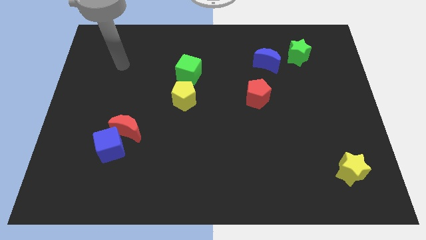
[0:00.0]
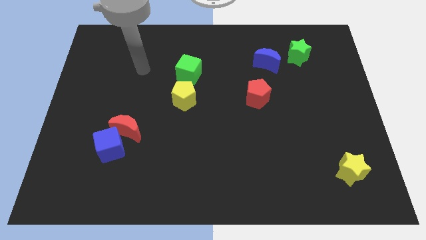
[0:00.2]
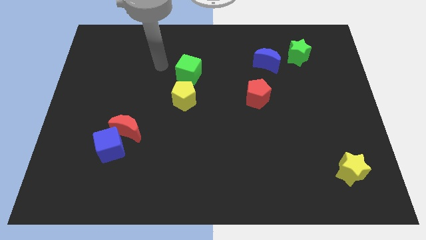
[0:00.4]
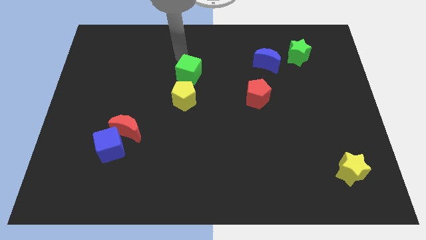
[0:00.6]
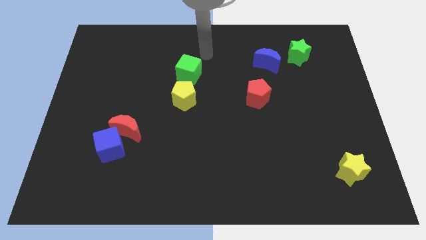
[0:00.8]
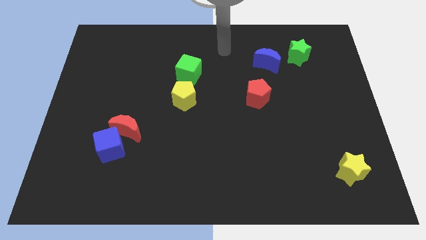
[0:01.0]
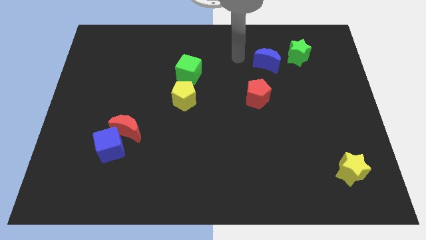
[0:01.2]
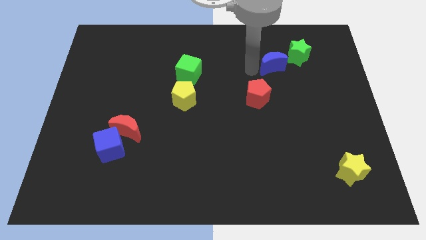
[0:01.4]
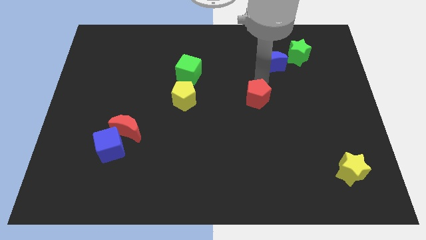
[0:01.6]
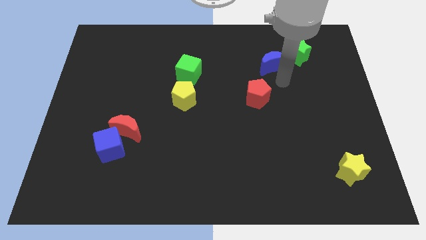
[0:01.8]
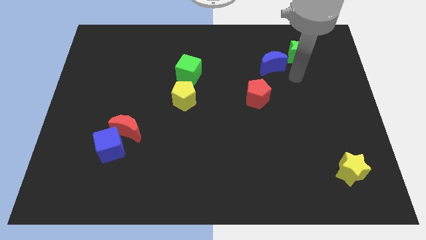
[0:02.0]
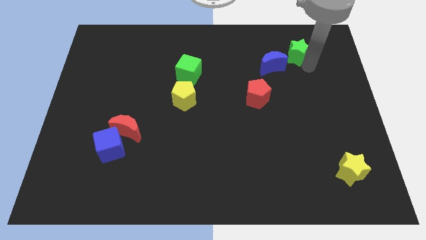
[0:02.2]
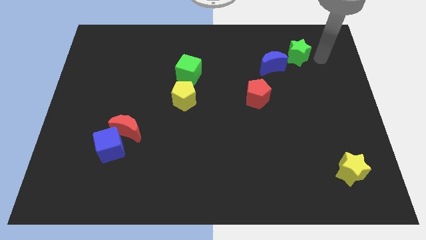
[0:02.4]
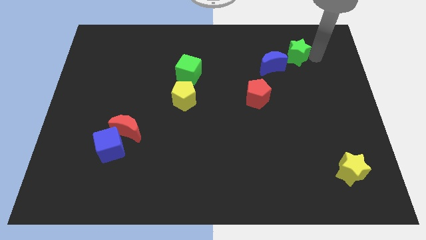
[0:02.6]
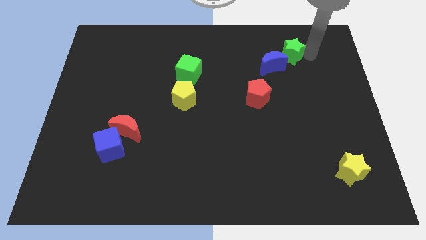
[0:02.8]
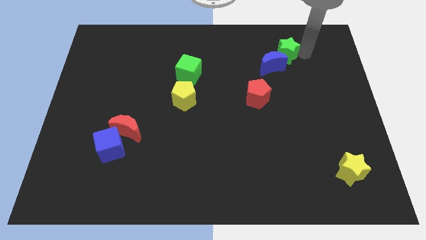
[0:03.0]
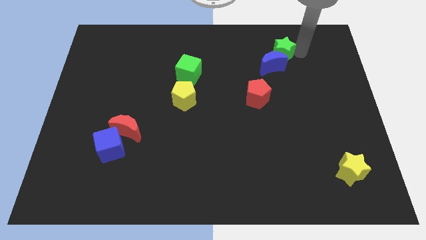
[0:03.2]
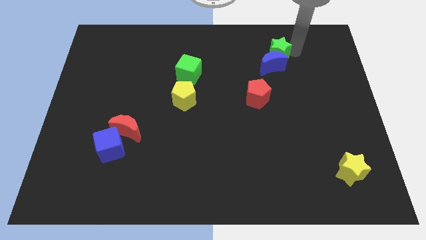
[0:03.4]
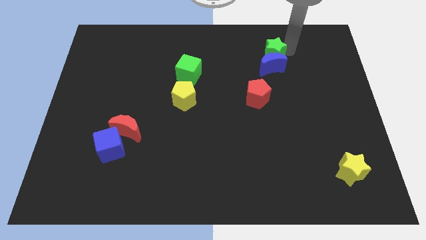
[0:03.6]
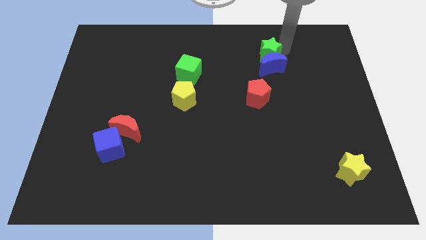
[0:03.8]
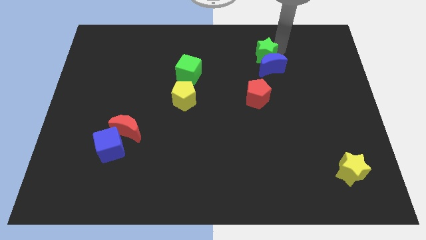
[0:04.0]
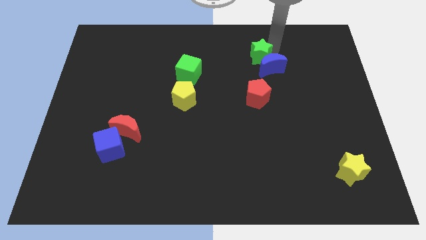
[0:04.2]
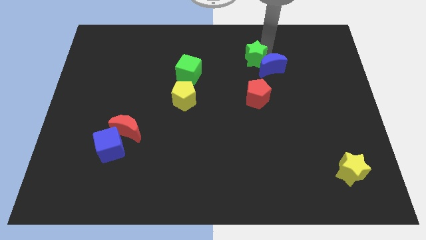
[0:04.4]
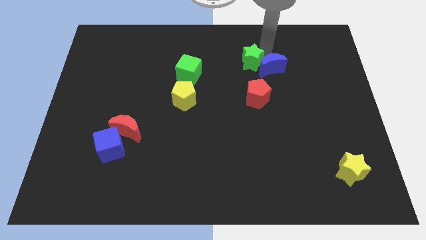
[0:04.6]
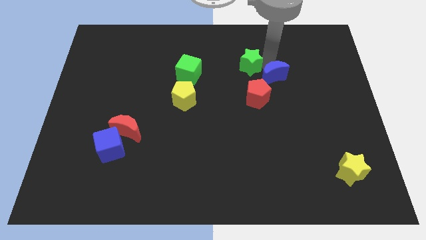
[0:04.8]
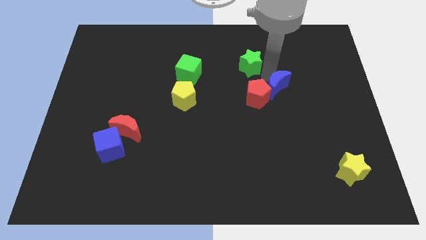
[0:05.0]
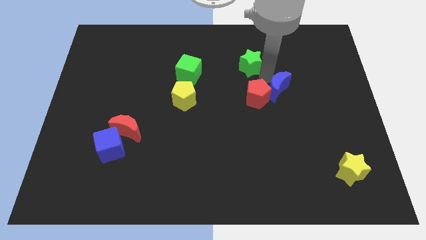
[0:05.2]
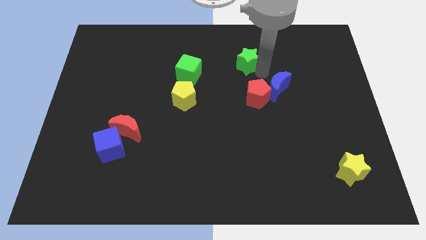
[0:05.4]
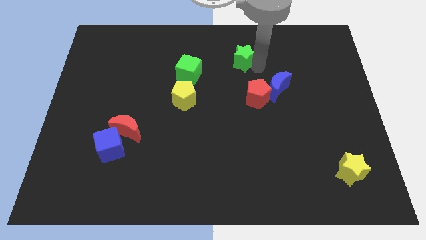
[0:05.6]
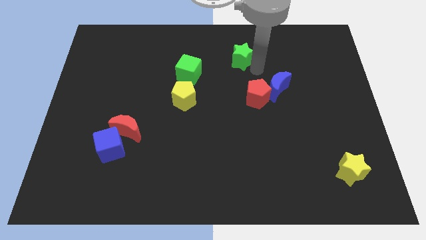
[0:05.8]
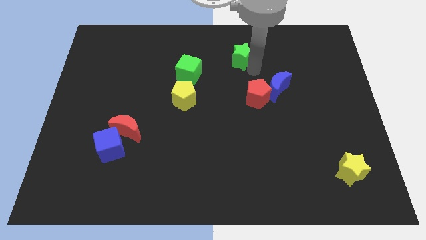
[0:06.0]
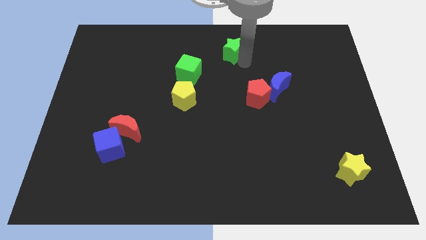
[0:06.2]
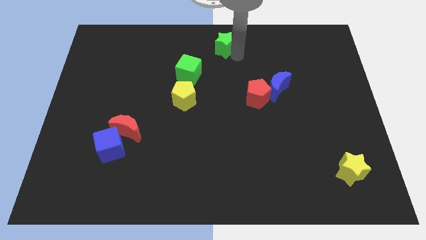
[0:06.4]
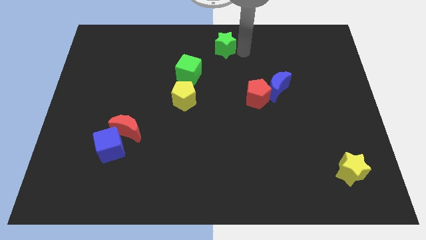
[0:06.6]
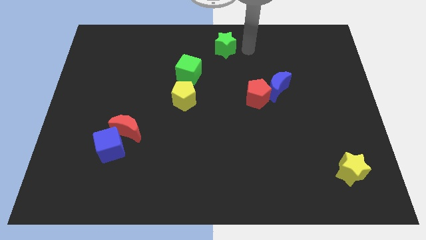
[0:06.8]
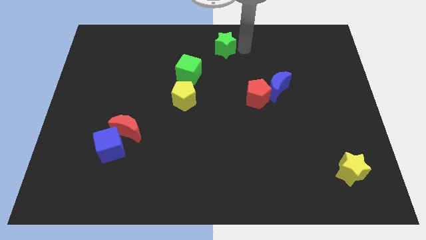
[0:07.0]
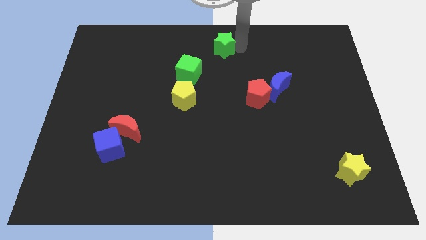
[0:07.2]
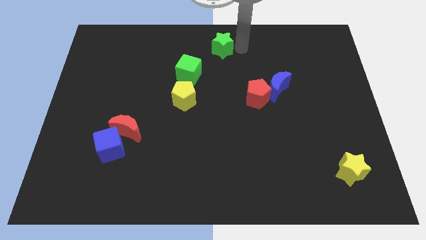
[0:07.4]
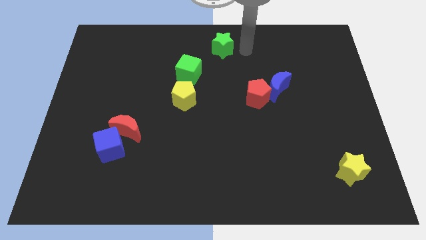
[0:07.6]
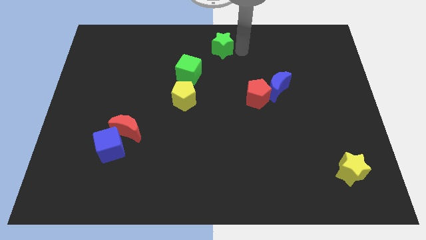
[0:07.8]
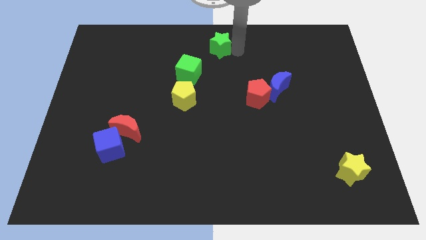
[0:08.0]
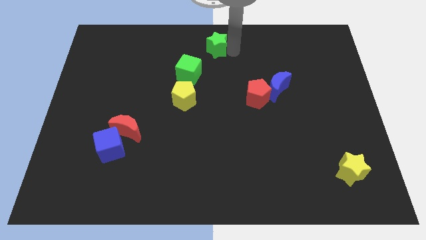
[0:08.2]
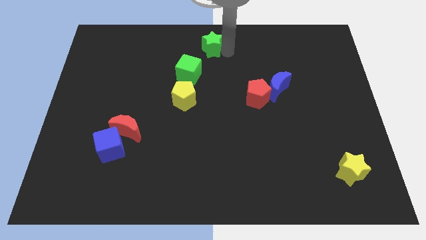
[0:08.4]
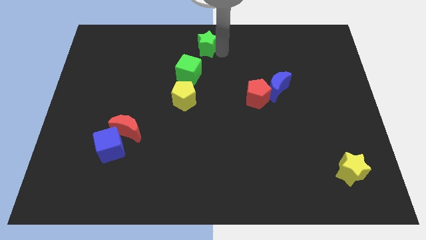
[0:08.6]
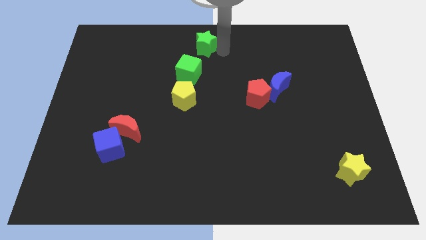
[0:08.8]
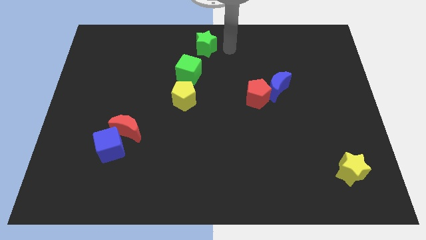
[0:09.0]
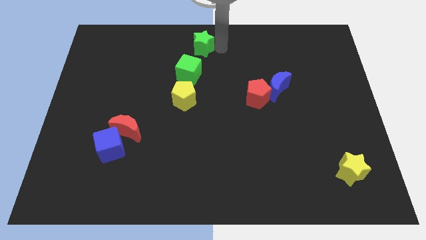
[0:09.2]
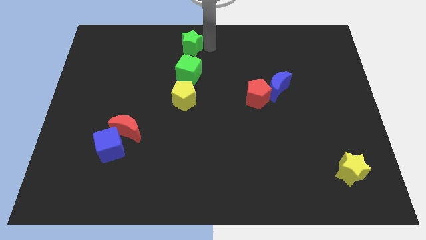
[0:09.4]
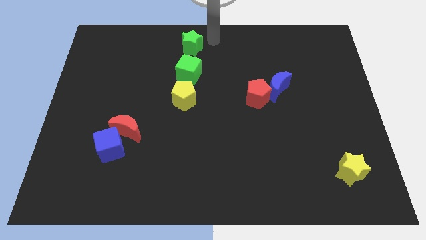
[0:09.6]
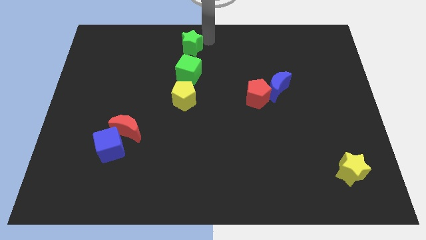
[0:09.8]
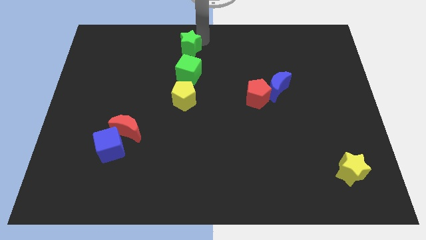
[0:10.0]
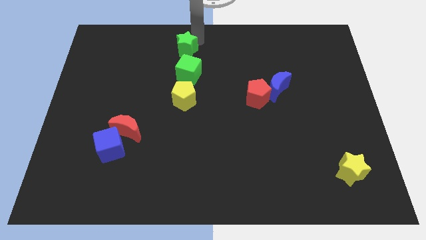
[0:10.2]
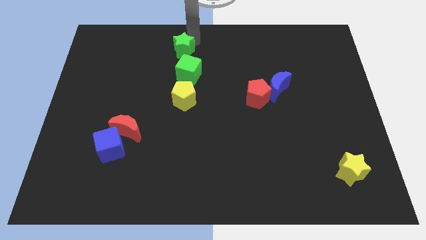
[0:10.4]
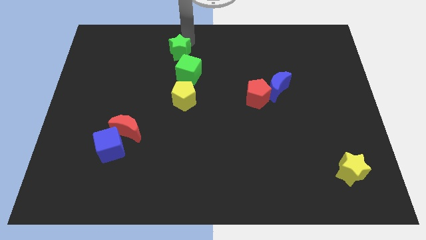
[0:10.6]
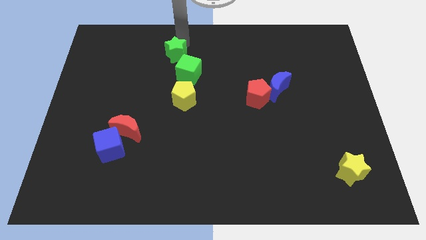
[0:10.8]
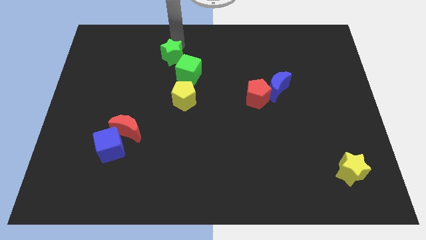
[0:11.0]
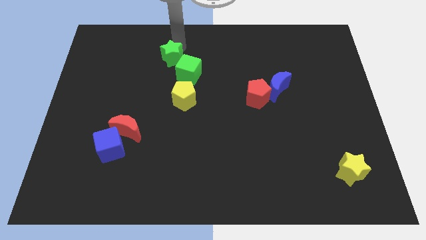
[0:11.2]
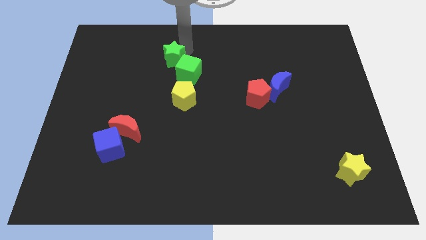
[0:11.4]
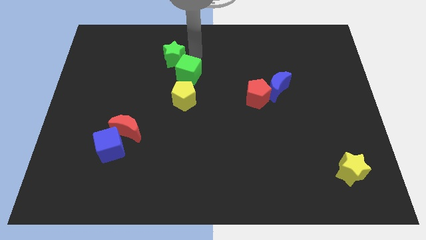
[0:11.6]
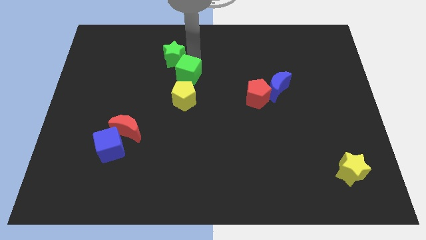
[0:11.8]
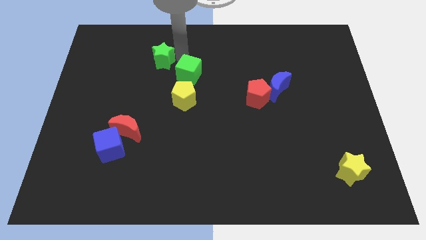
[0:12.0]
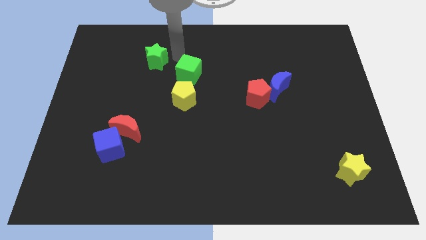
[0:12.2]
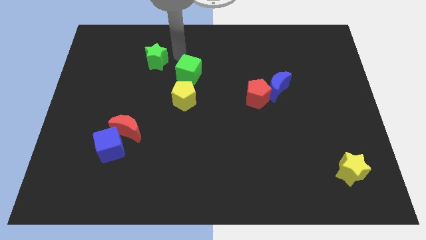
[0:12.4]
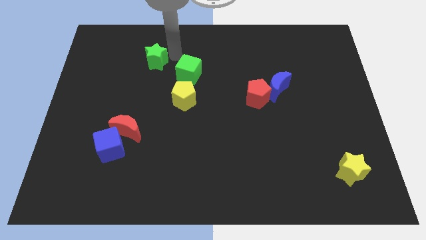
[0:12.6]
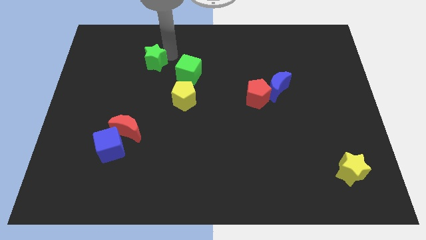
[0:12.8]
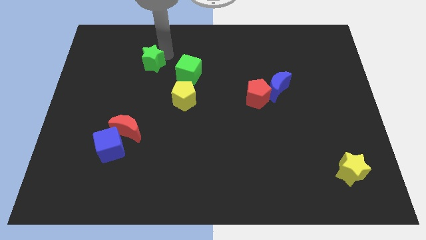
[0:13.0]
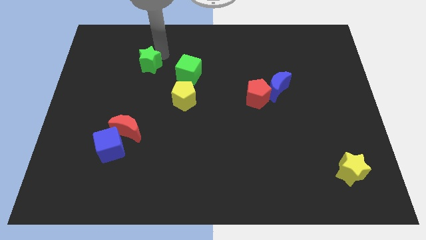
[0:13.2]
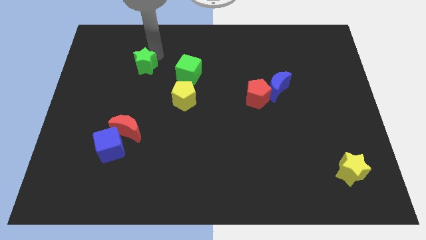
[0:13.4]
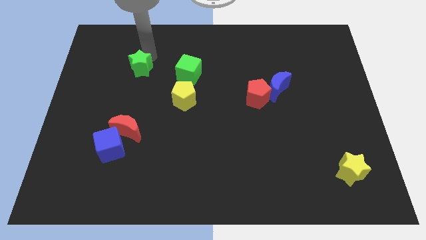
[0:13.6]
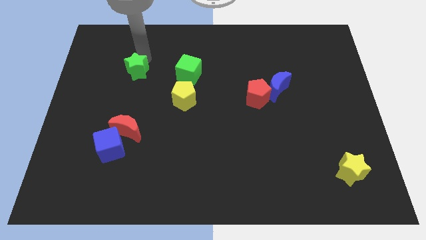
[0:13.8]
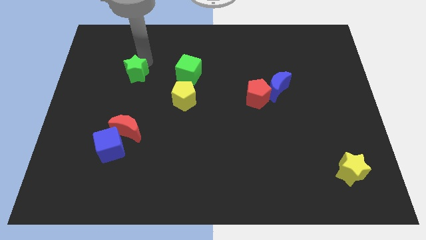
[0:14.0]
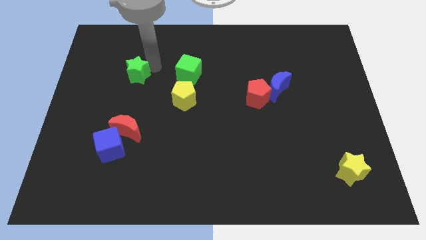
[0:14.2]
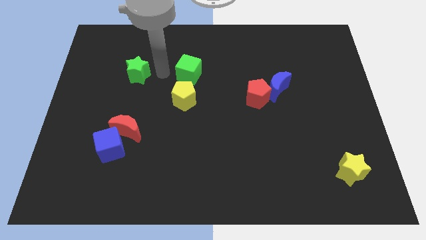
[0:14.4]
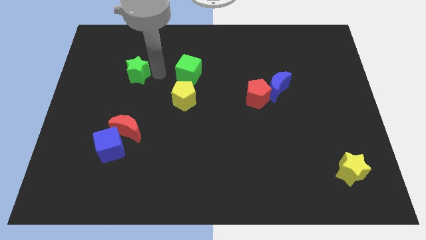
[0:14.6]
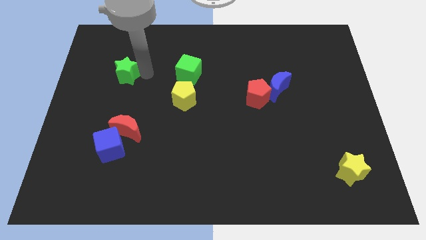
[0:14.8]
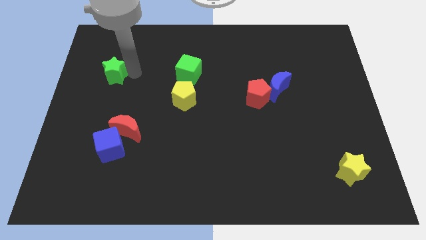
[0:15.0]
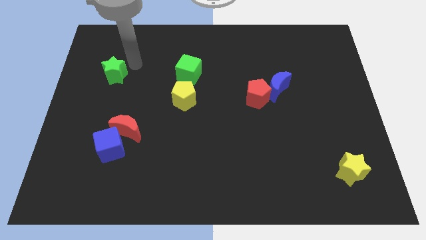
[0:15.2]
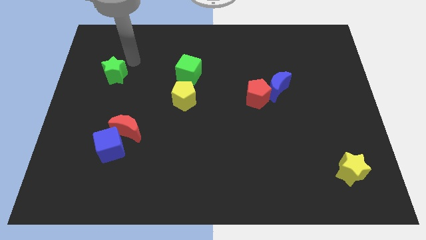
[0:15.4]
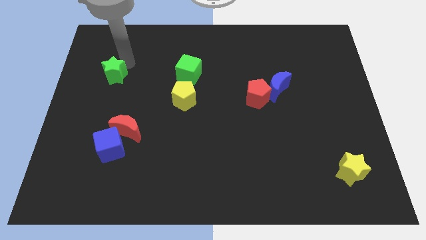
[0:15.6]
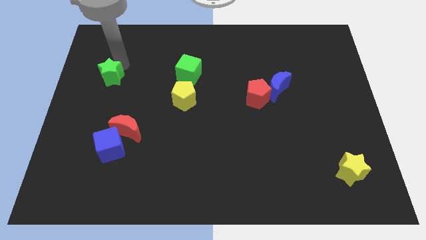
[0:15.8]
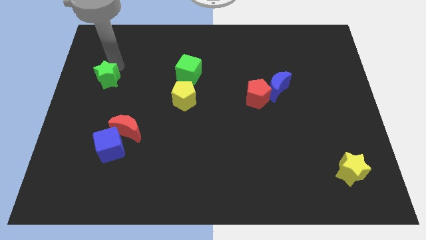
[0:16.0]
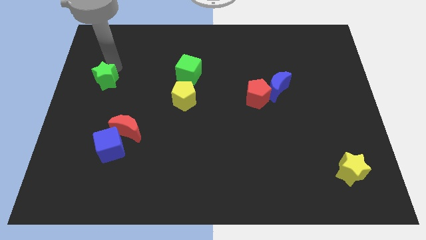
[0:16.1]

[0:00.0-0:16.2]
slide the green star to the left side of the board
